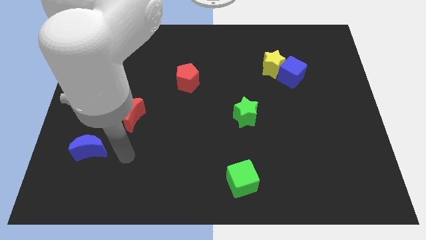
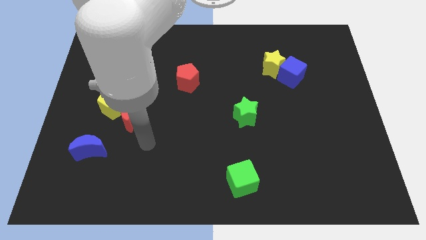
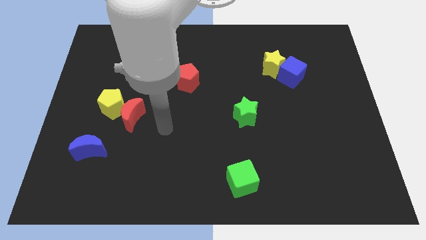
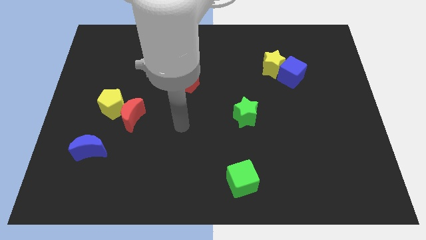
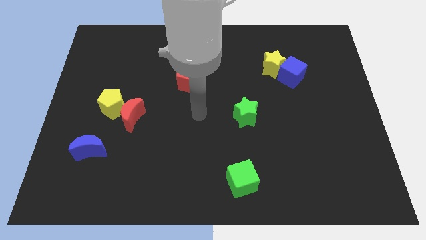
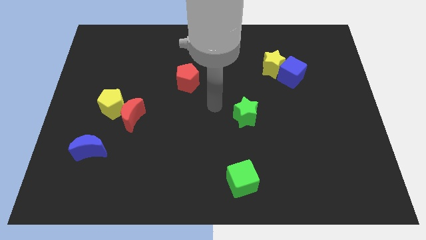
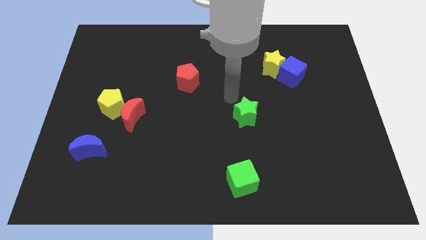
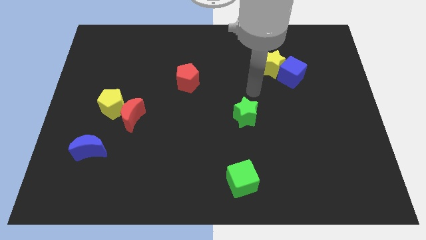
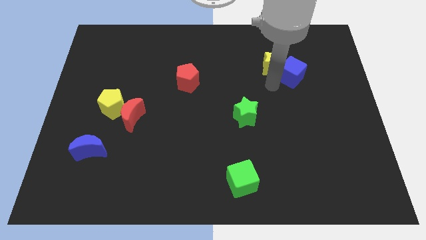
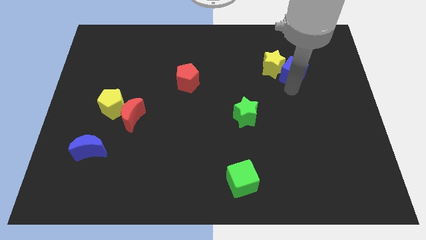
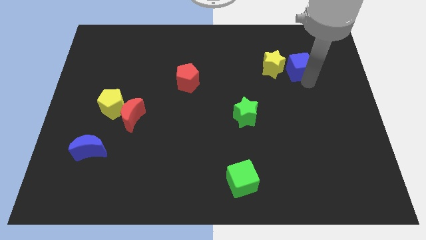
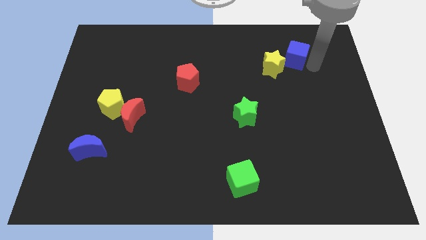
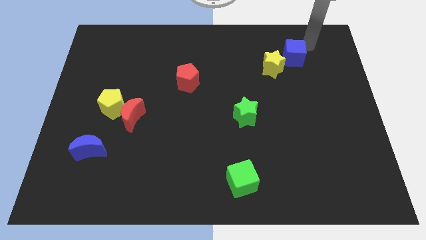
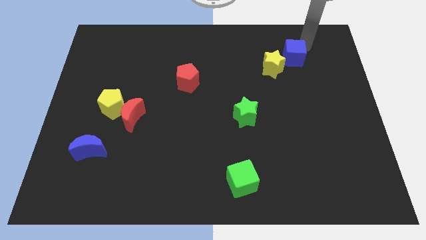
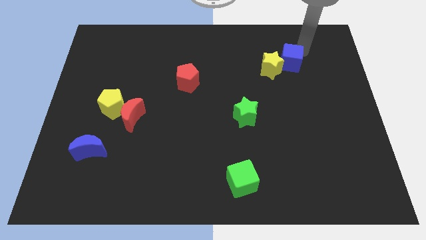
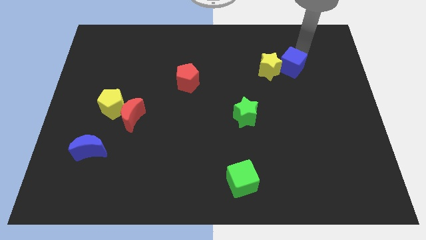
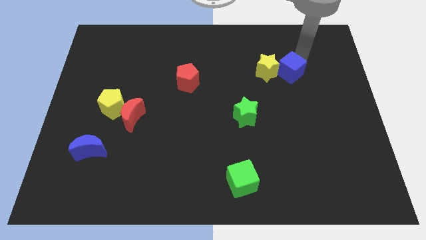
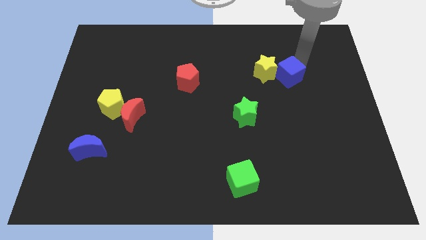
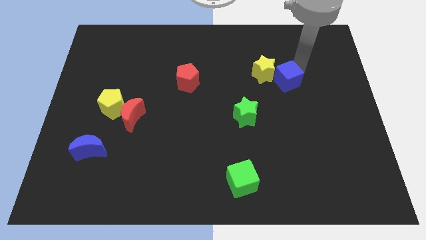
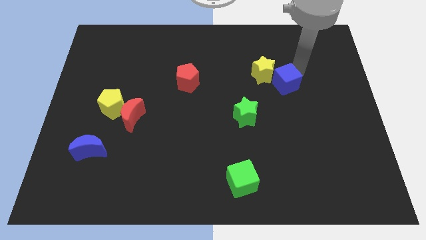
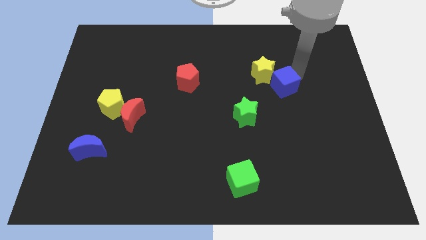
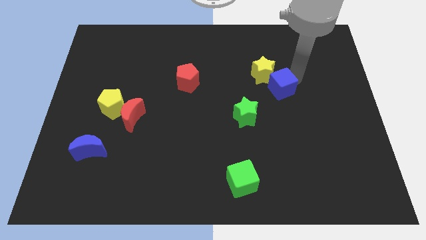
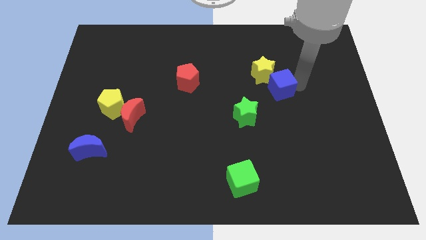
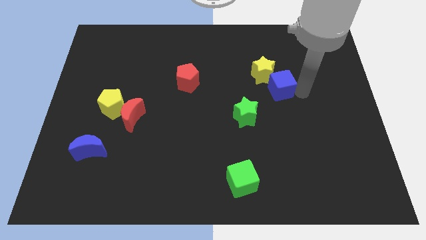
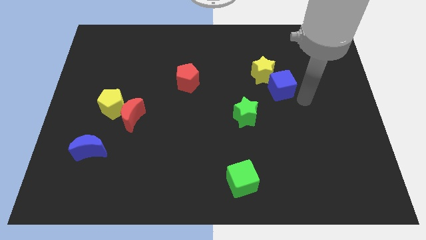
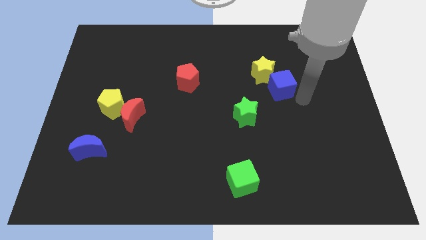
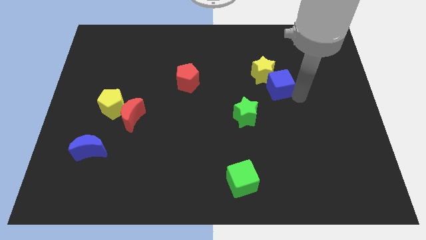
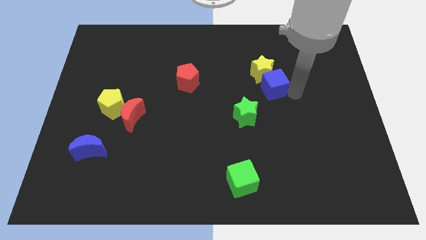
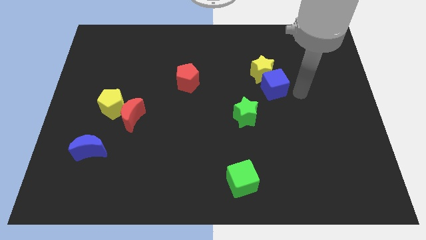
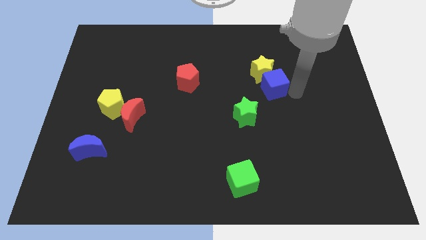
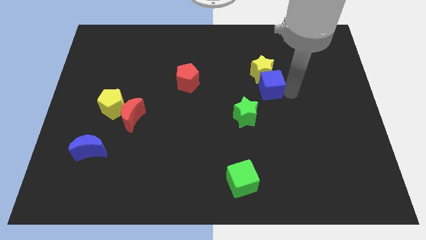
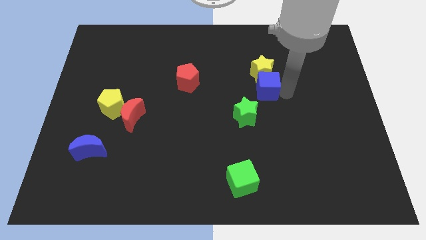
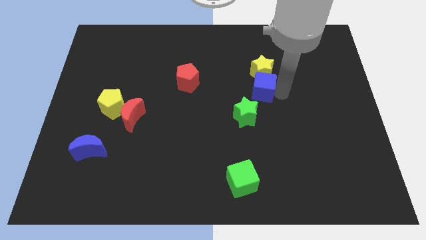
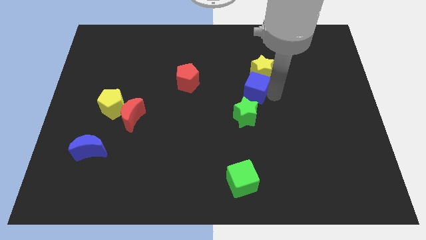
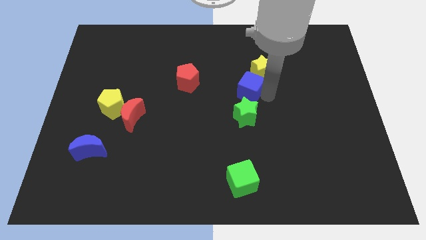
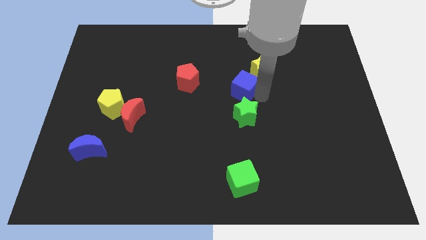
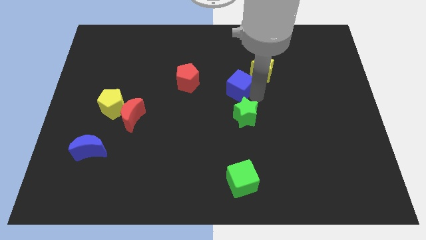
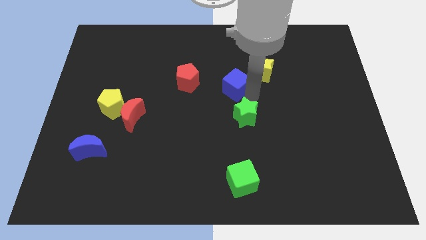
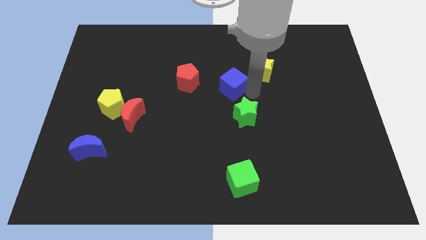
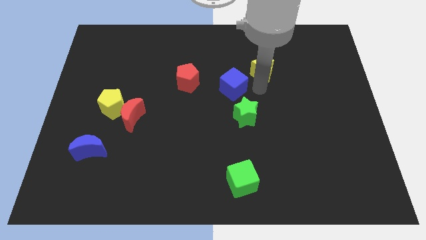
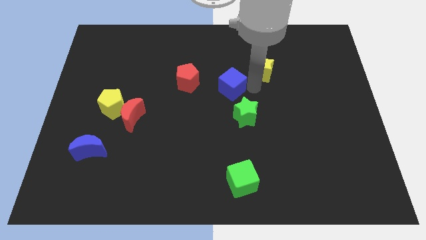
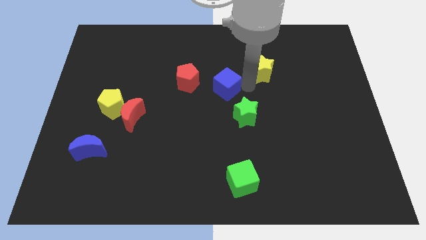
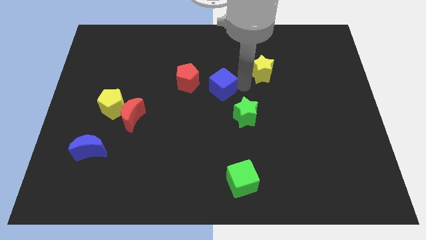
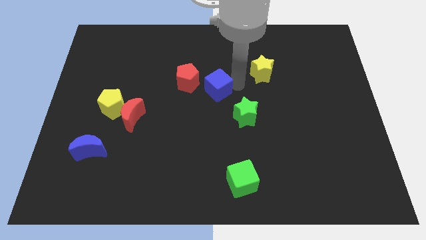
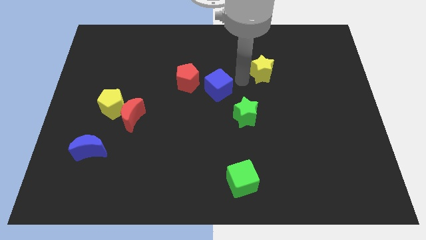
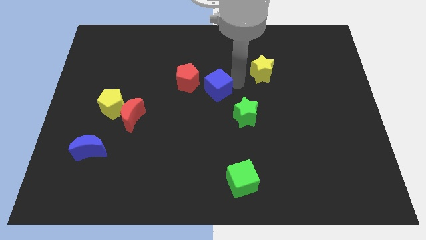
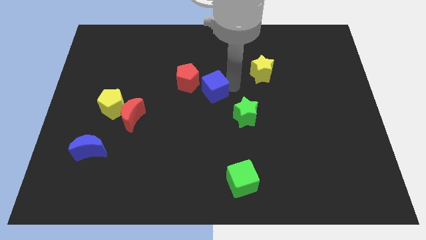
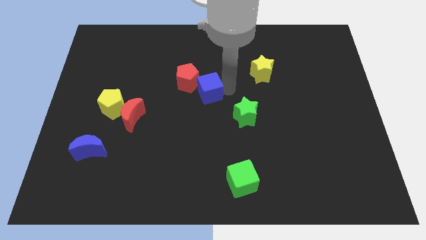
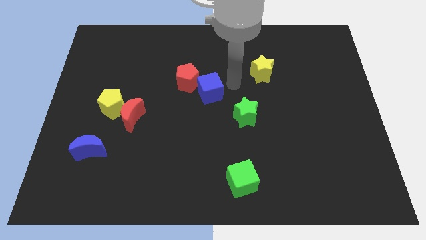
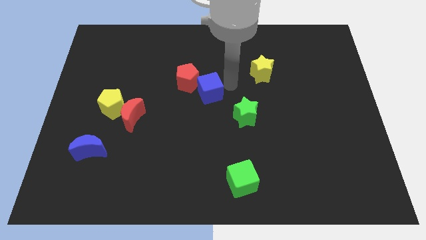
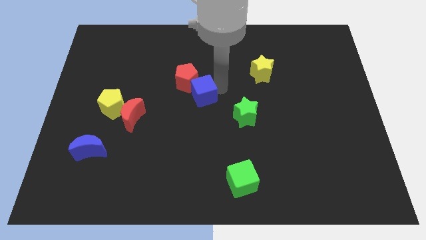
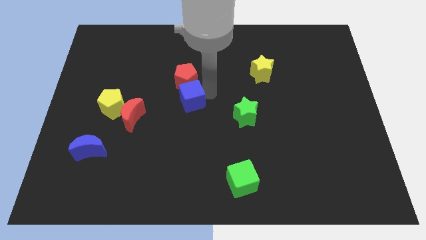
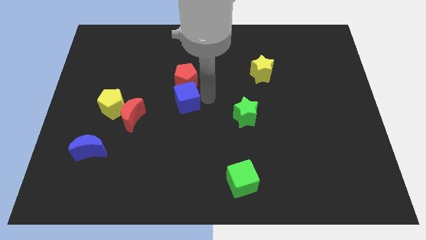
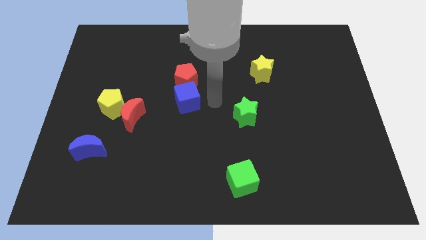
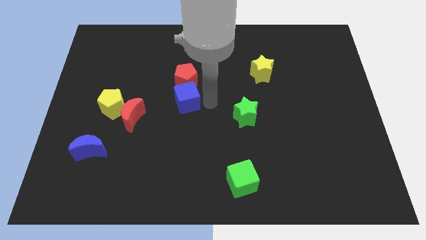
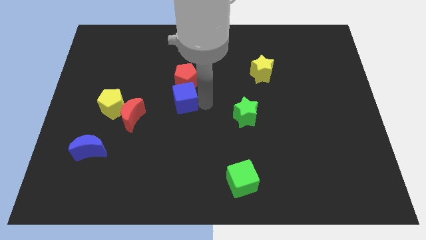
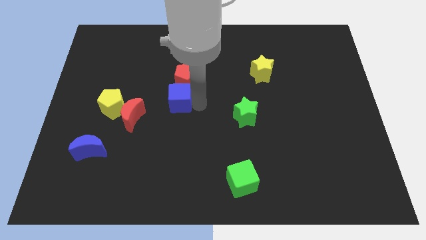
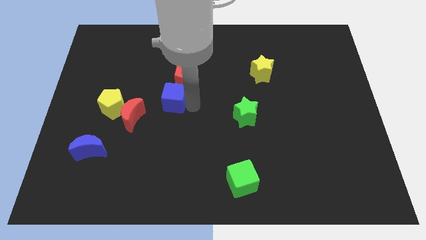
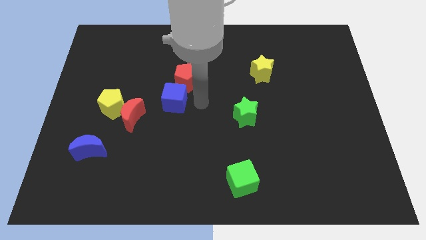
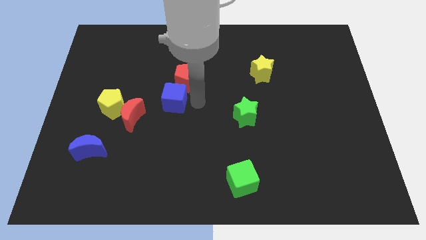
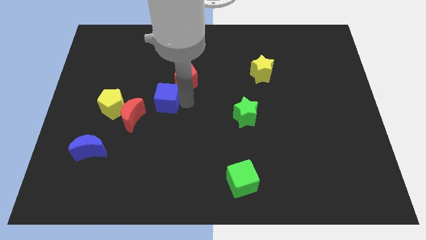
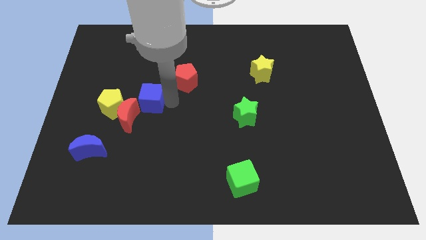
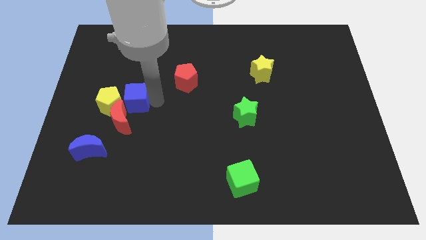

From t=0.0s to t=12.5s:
slide the blue cube next to the yellow pentagon

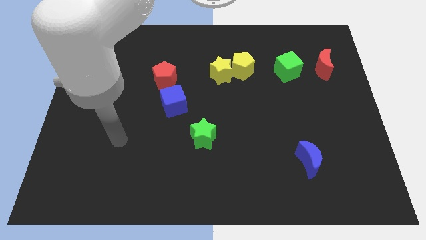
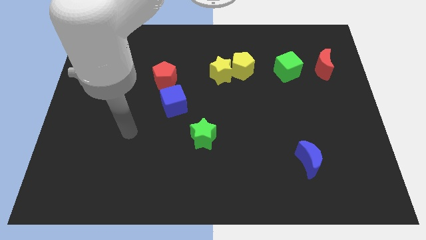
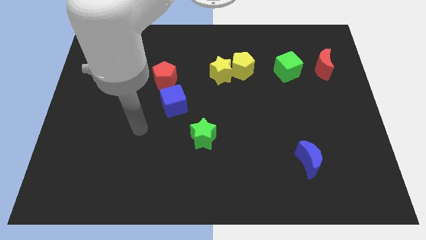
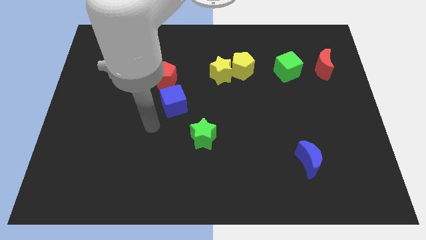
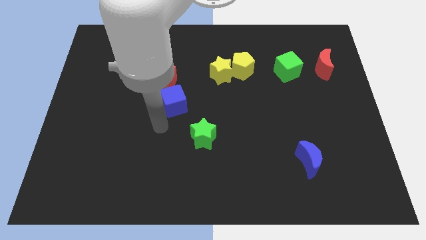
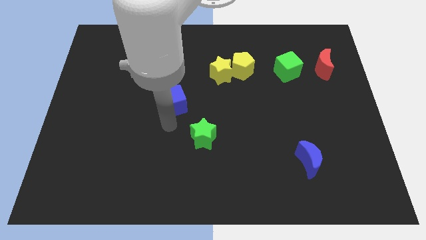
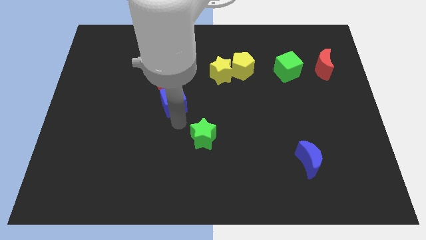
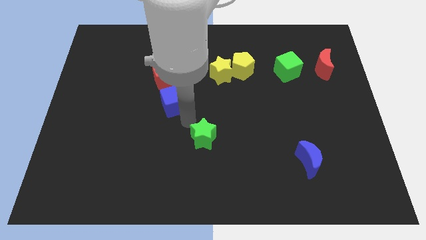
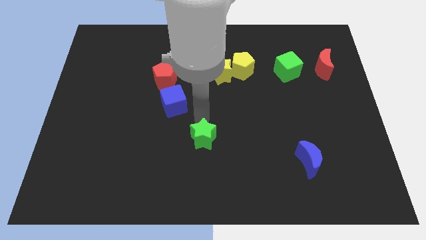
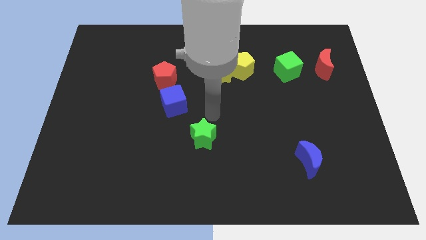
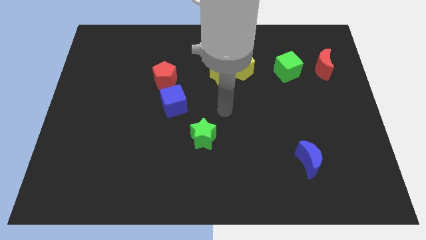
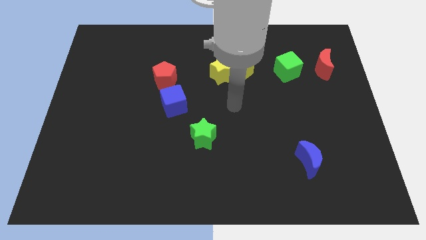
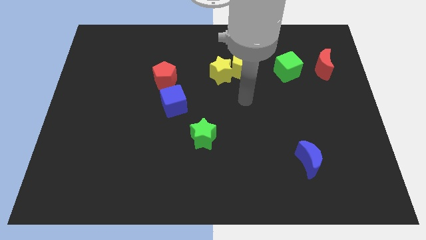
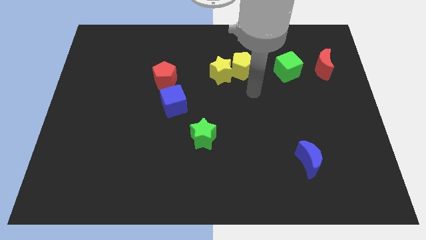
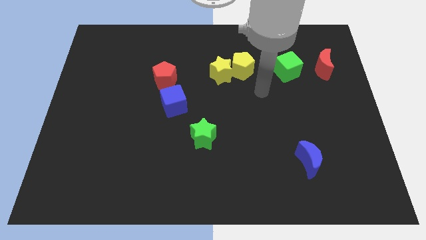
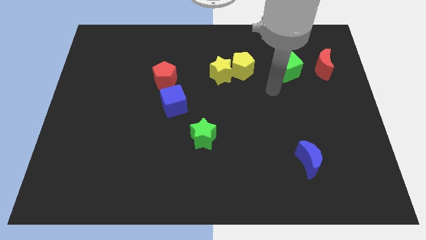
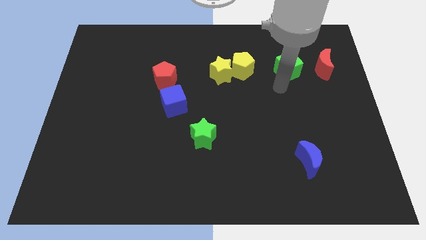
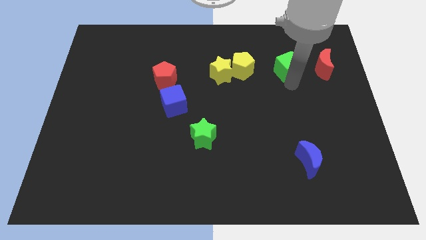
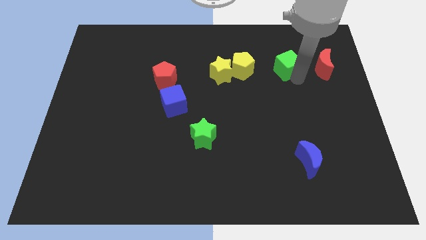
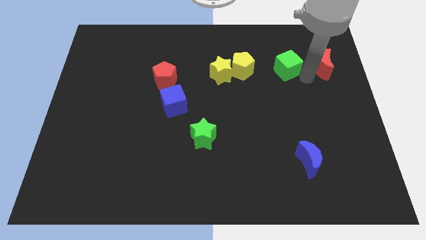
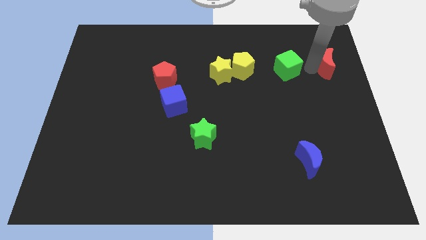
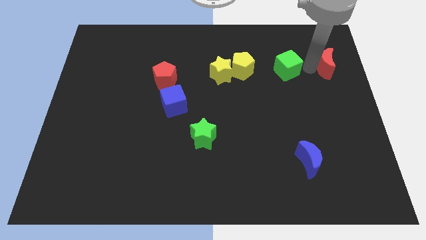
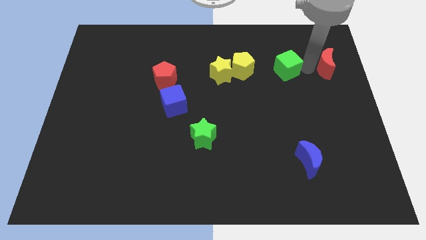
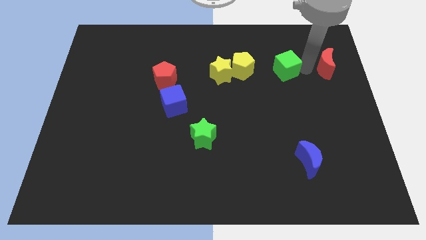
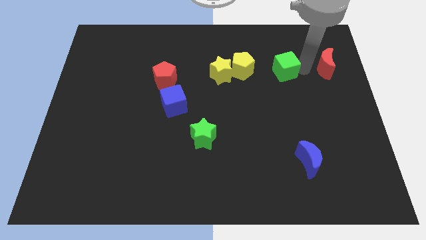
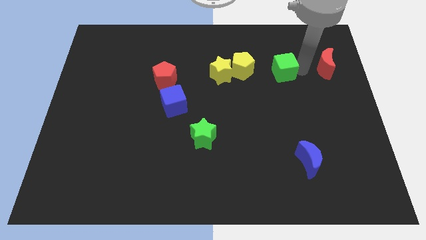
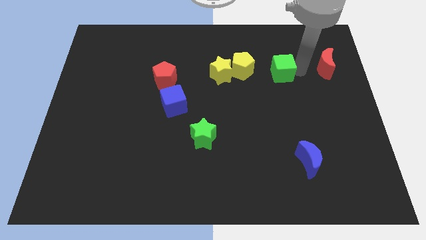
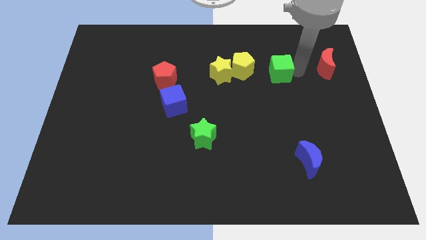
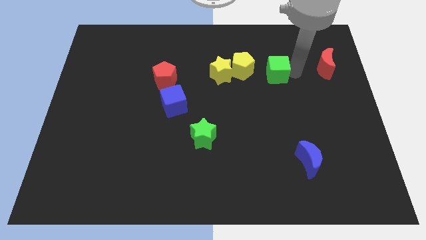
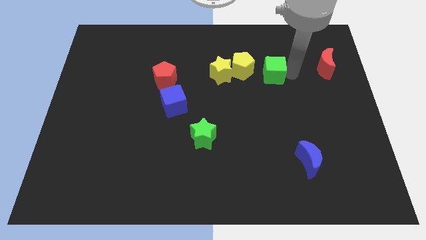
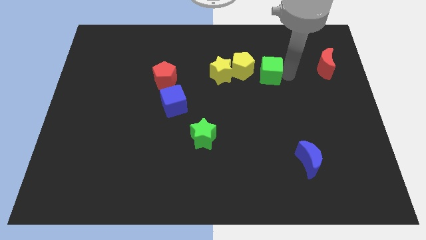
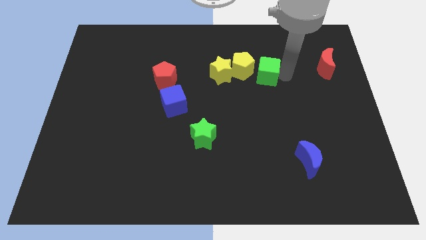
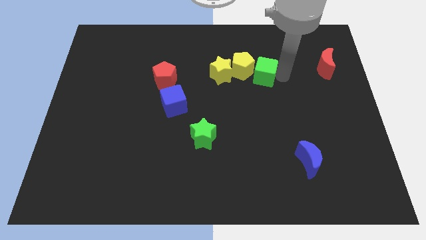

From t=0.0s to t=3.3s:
slide the green cube towards the yellow pentagon
